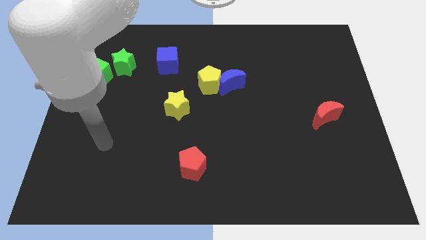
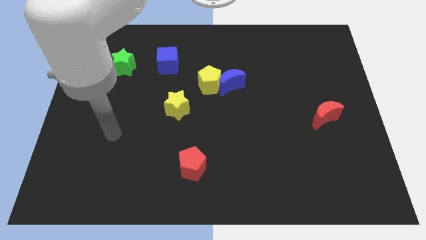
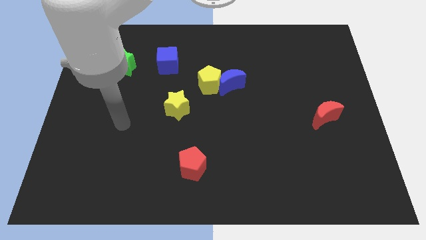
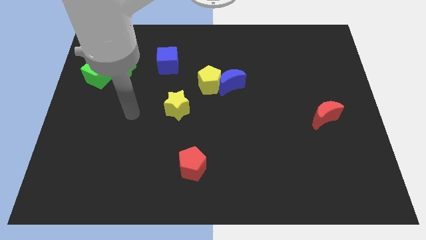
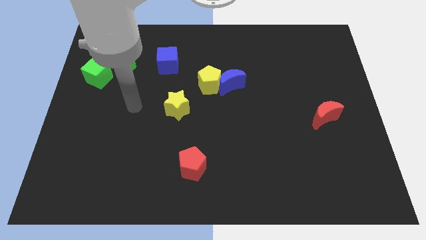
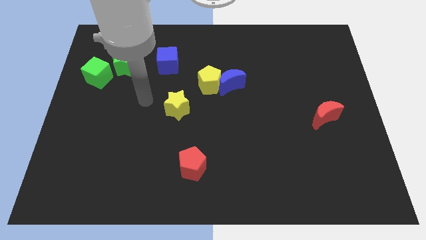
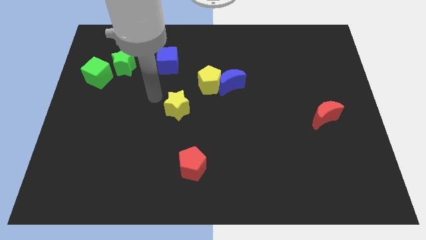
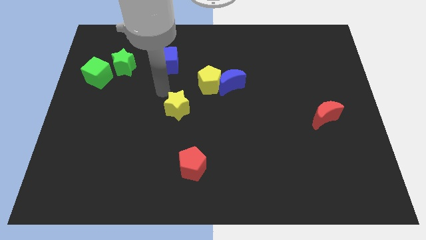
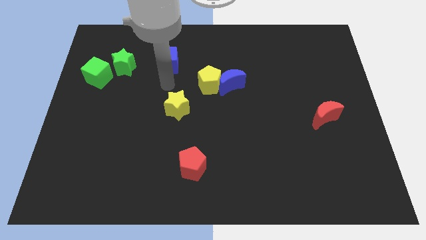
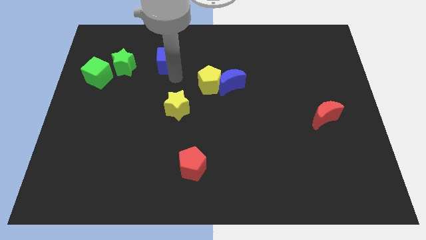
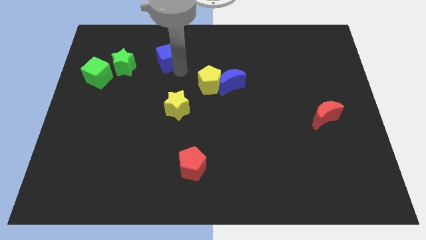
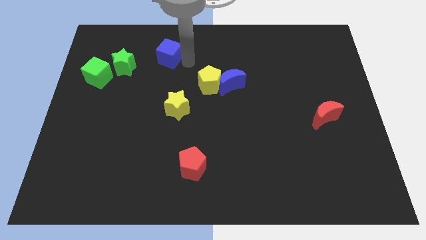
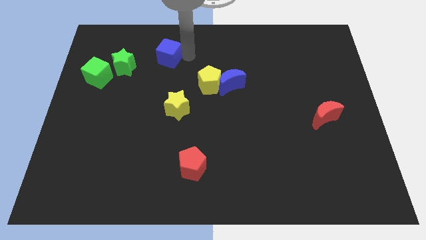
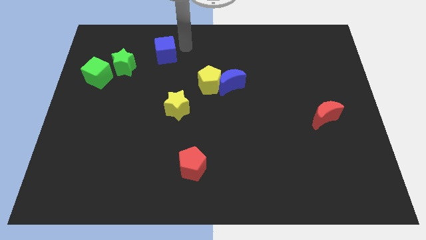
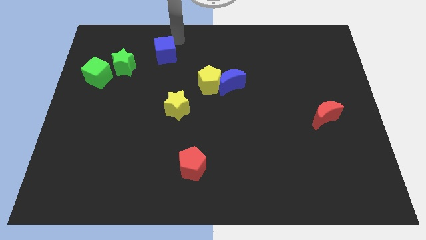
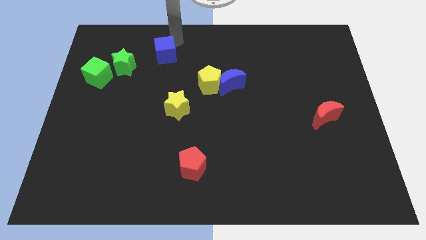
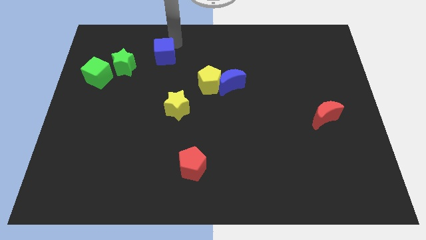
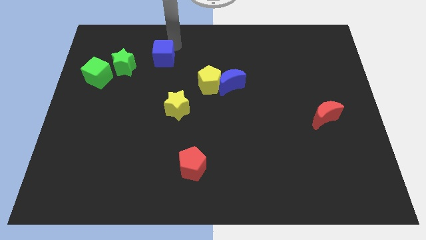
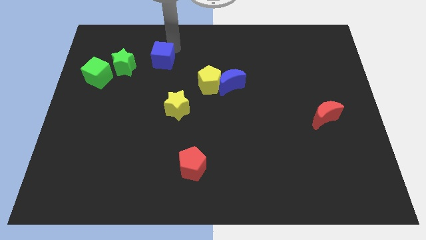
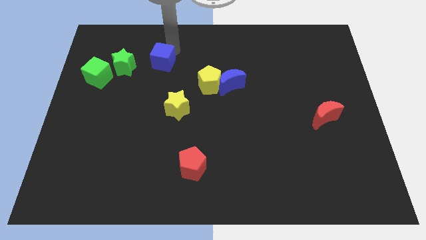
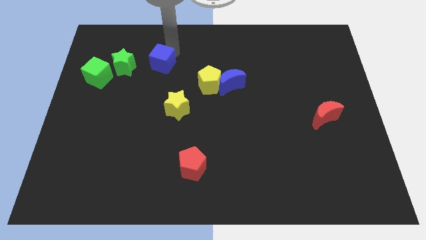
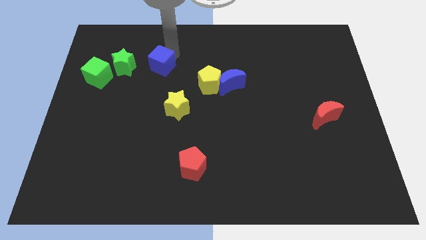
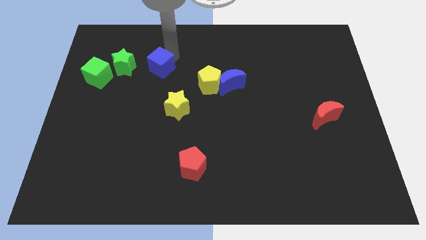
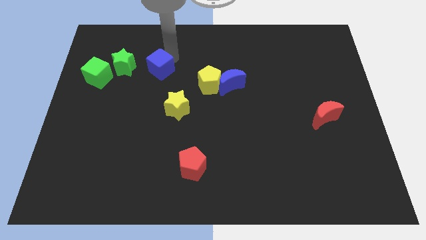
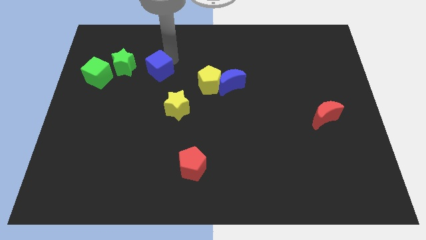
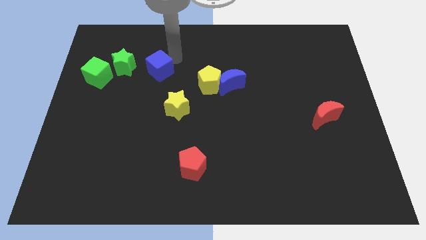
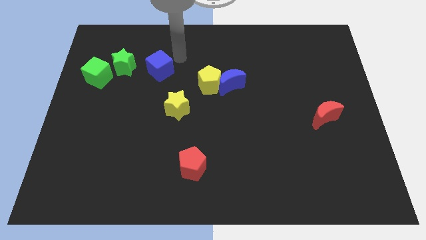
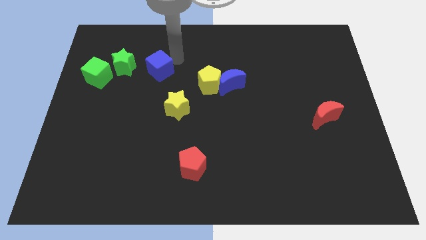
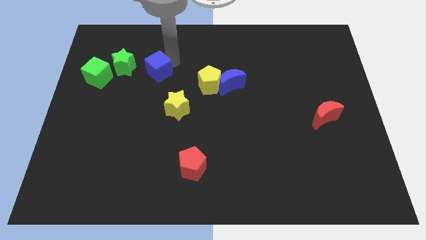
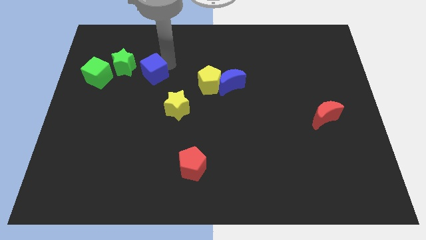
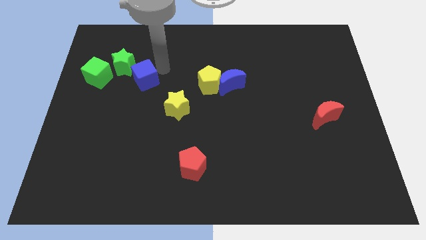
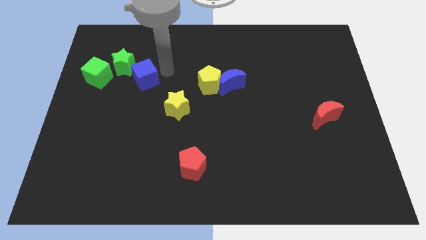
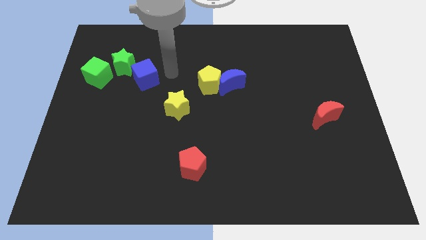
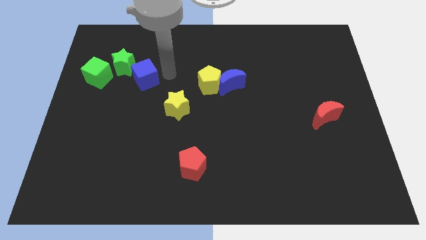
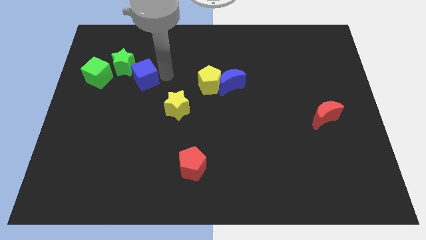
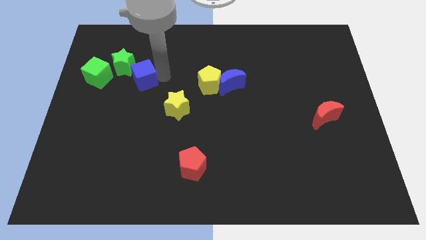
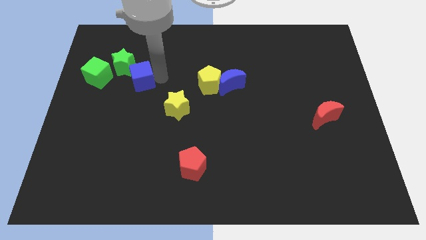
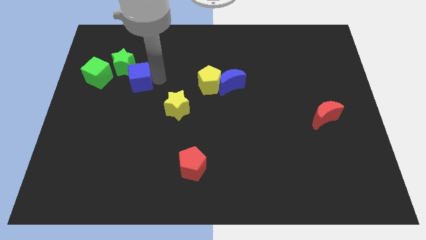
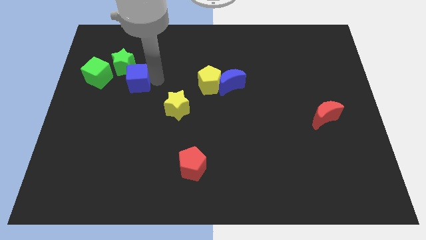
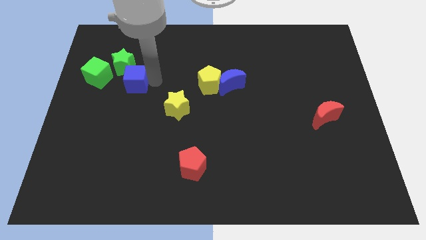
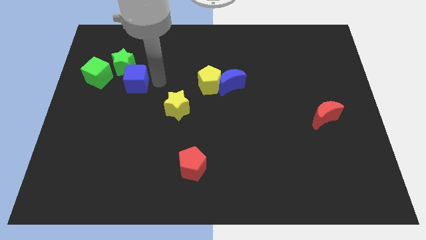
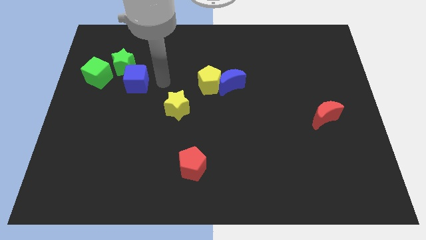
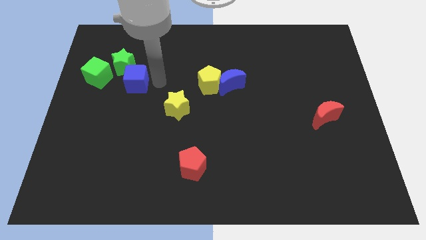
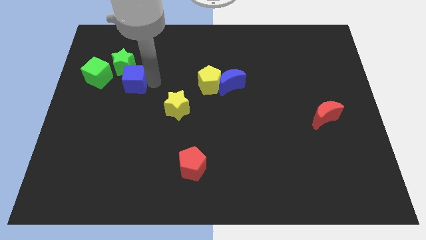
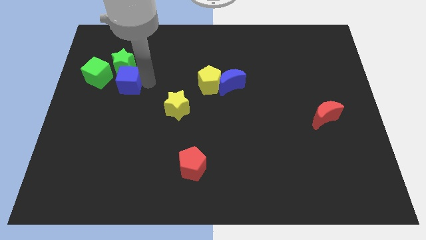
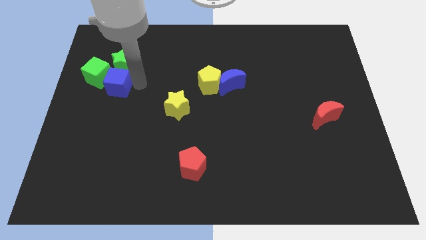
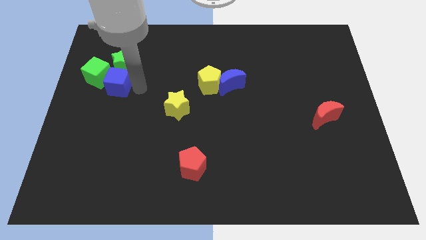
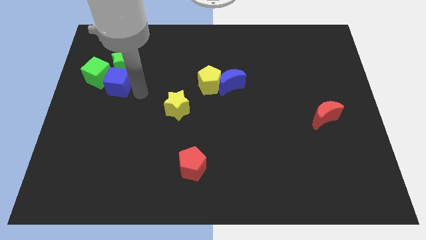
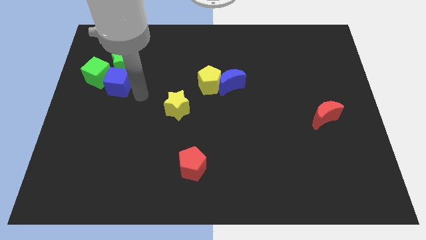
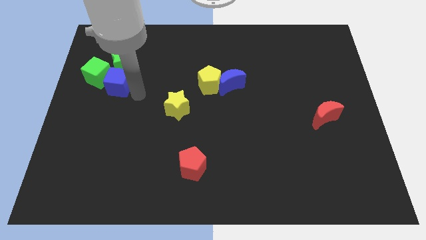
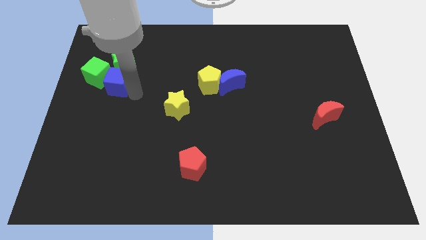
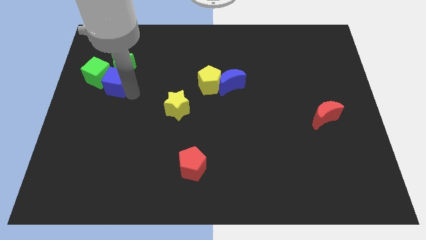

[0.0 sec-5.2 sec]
put the blue cube next to the green cube

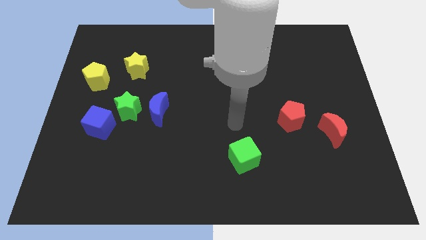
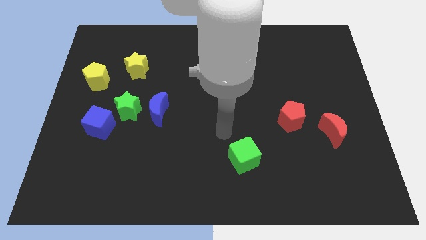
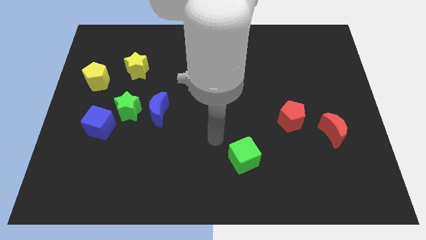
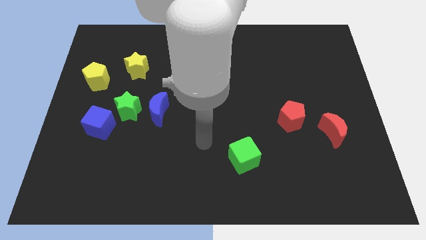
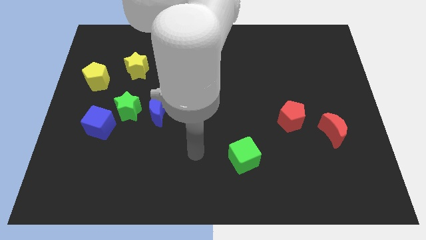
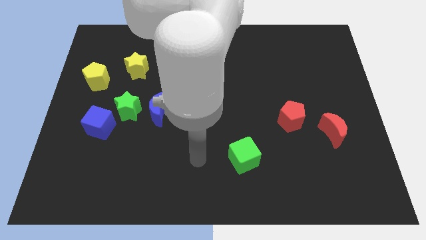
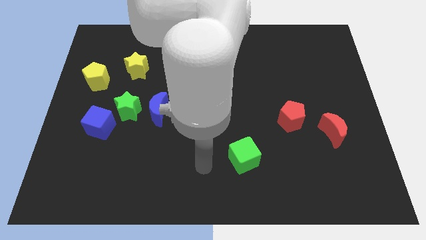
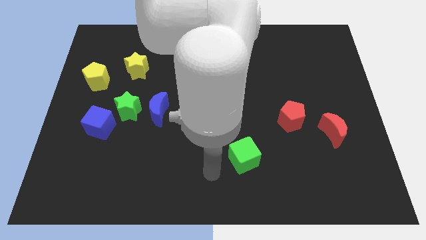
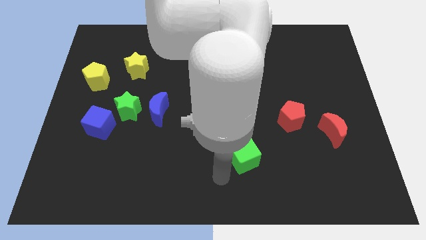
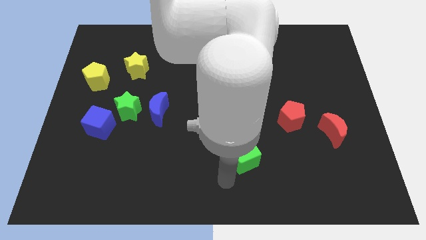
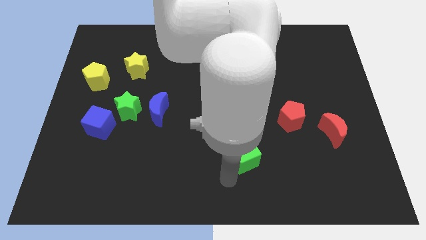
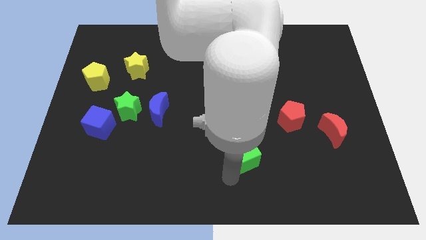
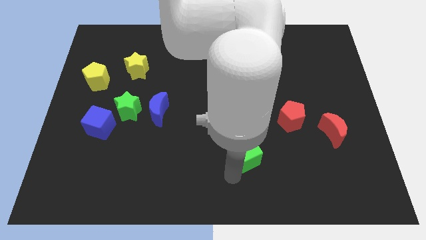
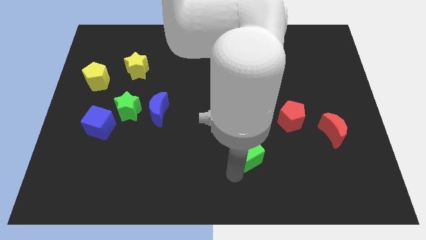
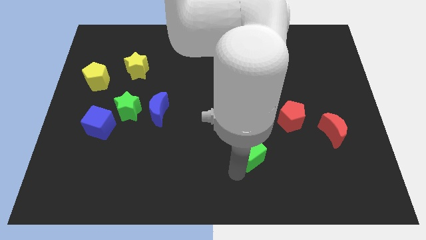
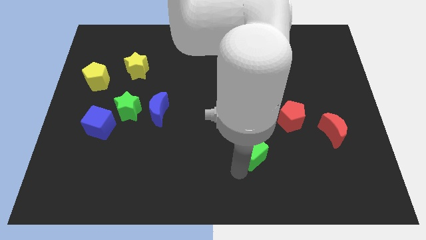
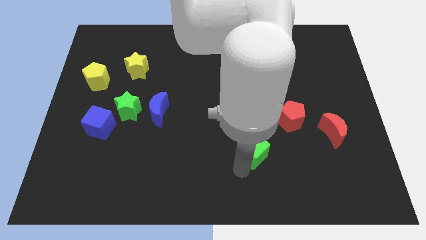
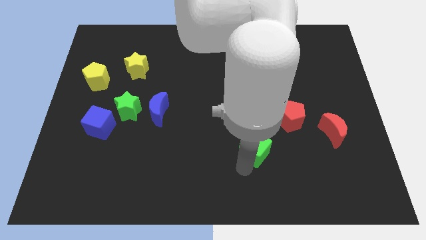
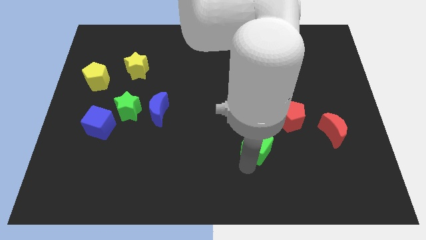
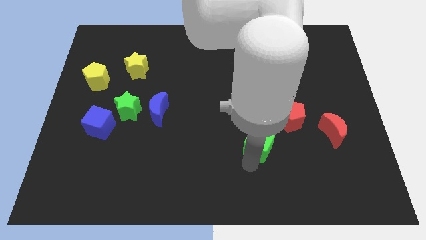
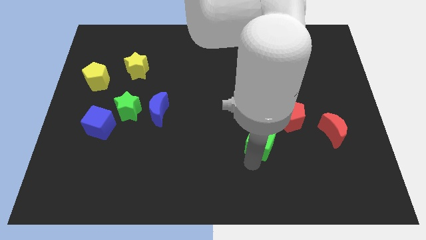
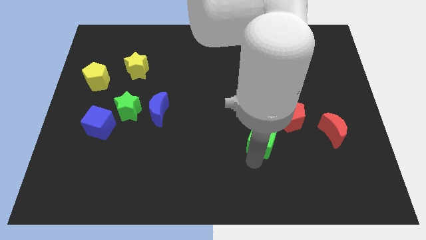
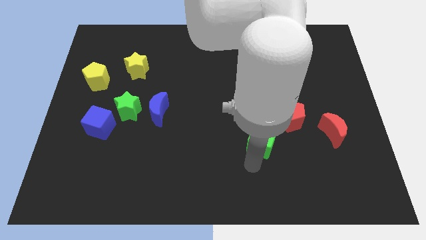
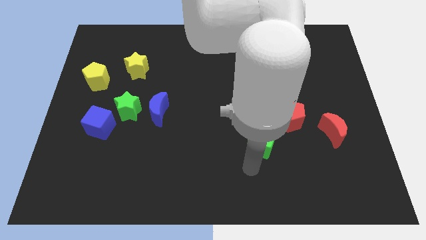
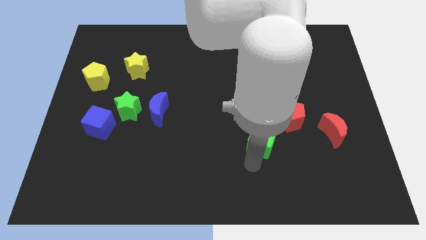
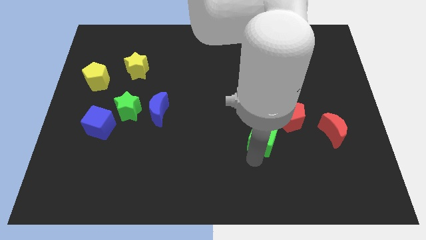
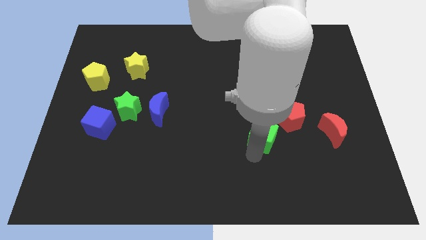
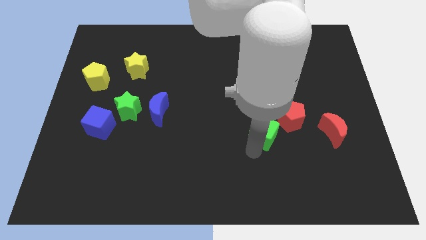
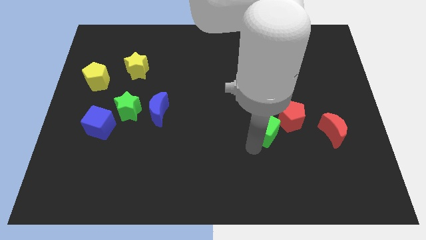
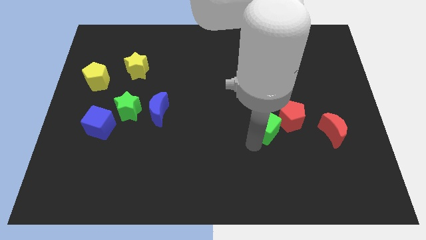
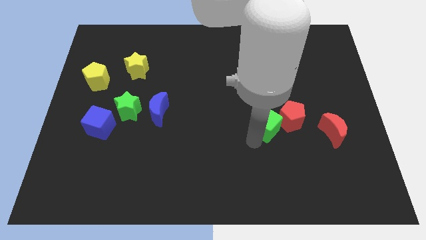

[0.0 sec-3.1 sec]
slide the green cube towards the red pentagon
